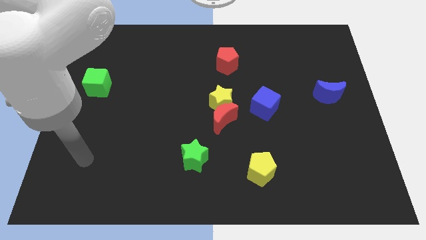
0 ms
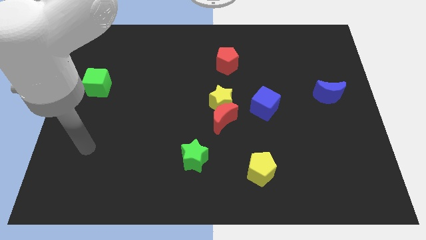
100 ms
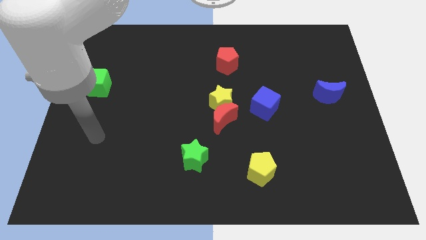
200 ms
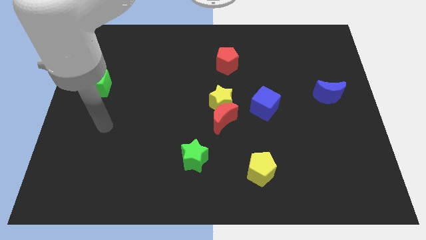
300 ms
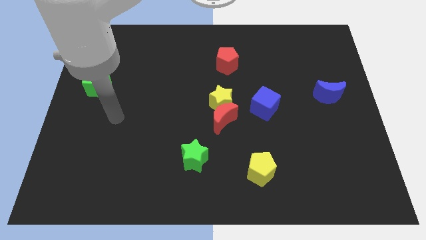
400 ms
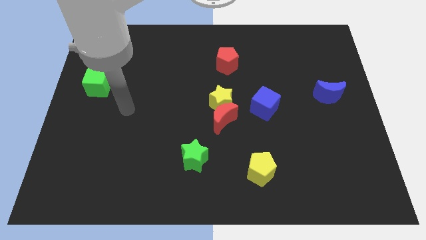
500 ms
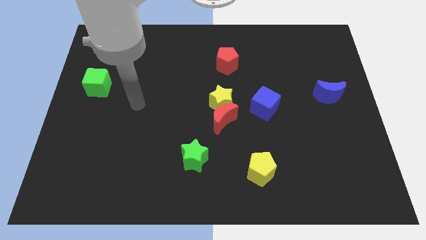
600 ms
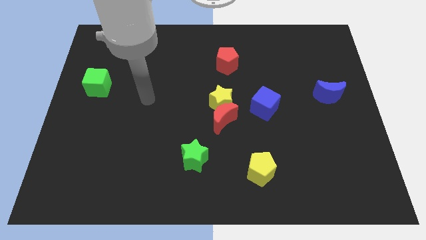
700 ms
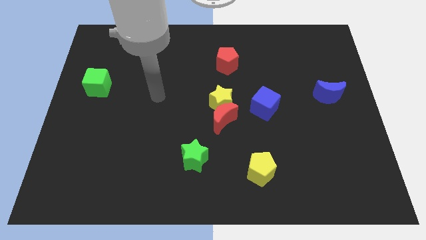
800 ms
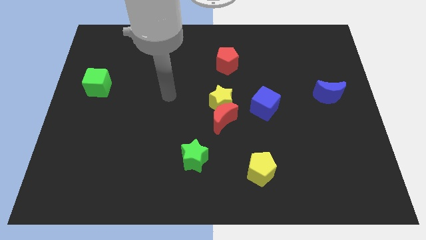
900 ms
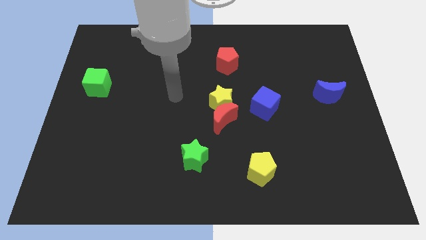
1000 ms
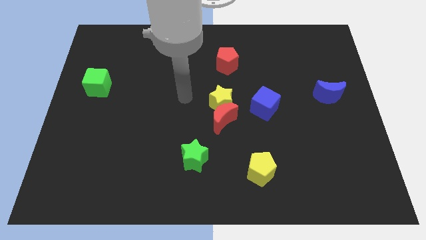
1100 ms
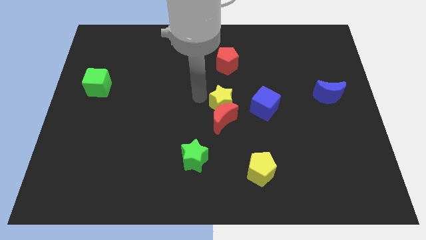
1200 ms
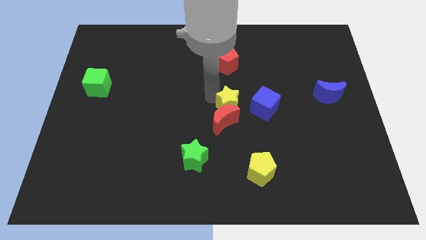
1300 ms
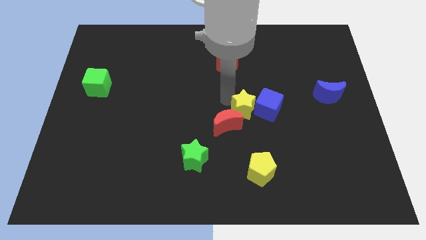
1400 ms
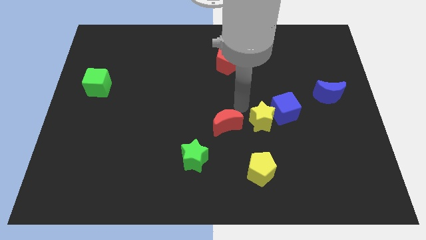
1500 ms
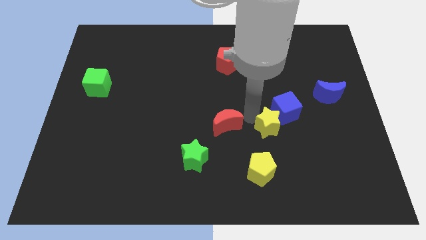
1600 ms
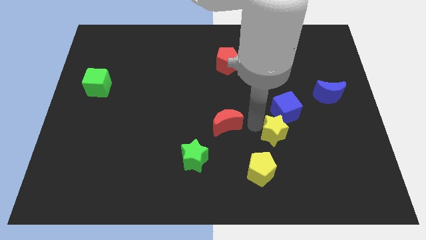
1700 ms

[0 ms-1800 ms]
pull the red moon apart from the yellow star

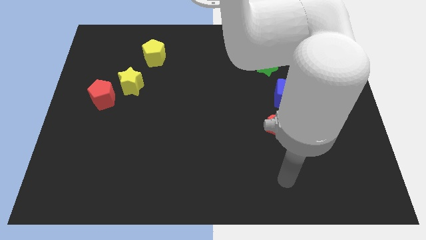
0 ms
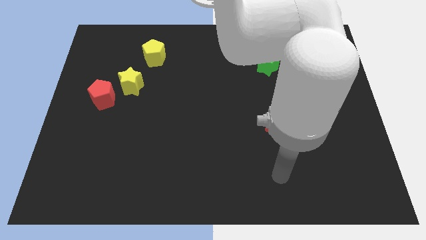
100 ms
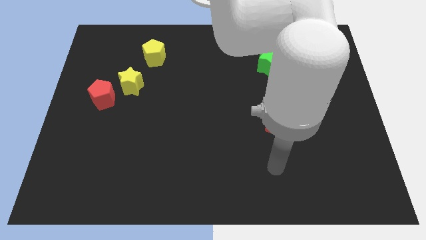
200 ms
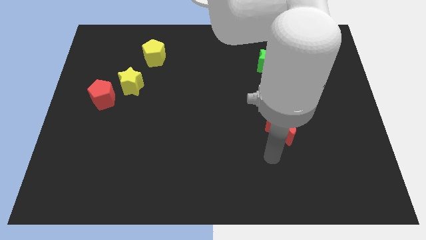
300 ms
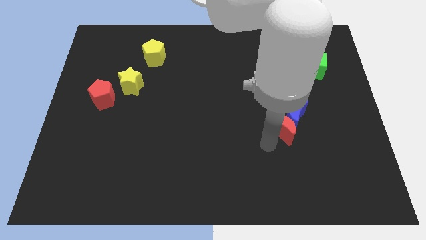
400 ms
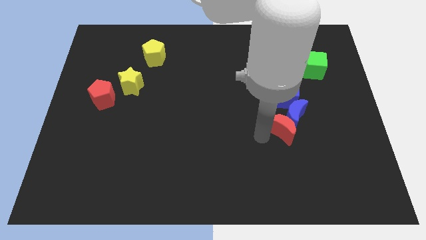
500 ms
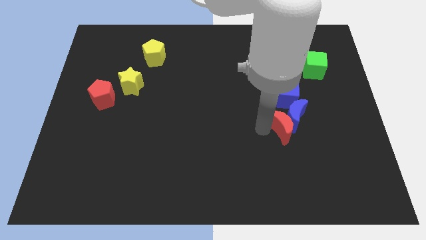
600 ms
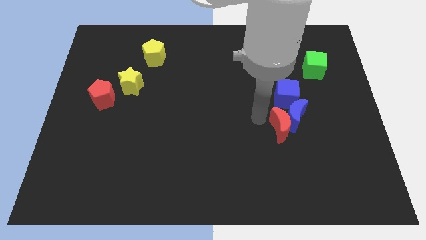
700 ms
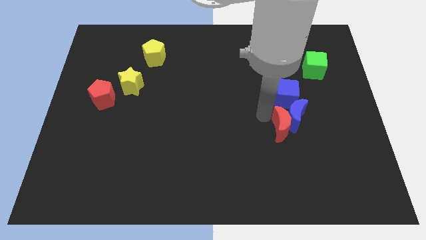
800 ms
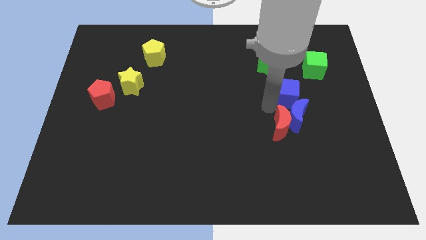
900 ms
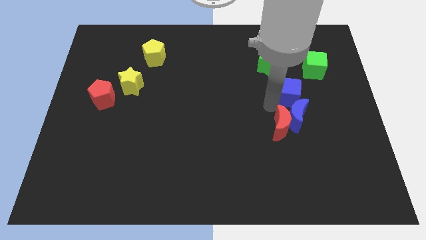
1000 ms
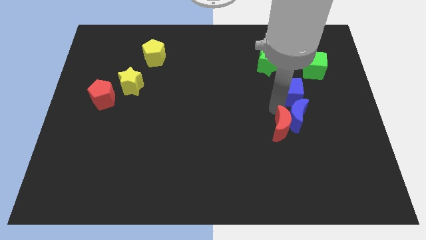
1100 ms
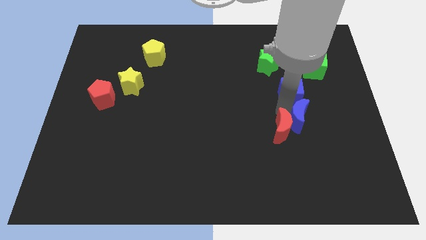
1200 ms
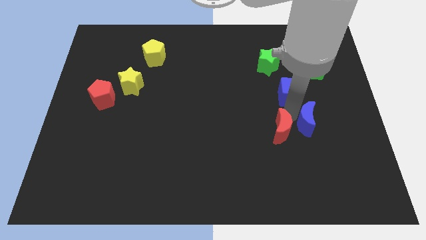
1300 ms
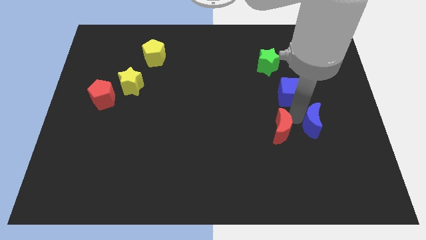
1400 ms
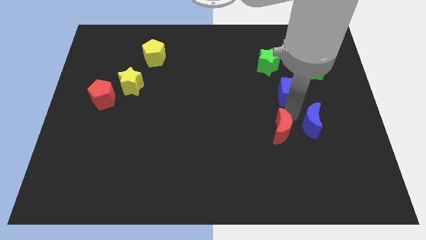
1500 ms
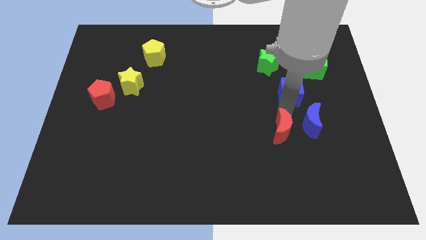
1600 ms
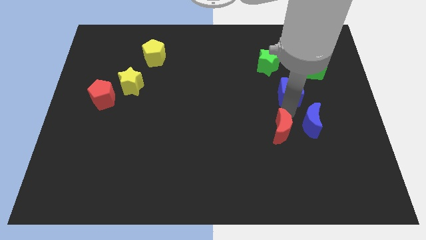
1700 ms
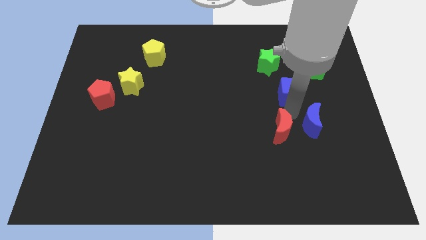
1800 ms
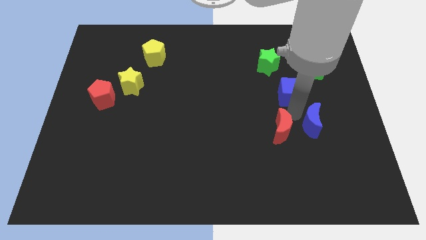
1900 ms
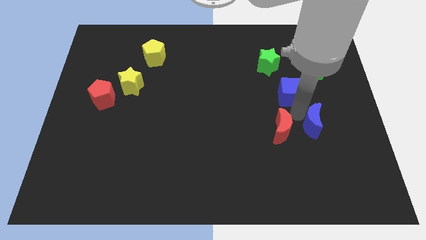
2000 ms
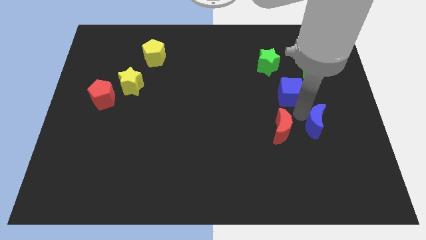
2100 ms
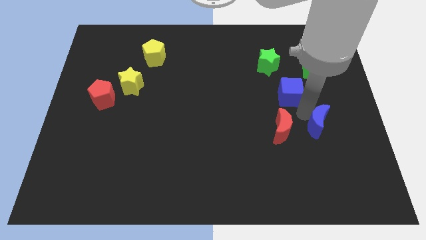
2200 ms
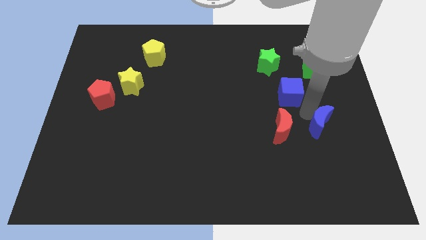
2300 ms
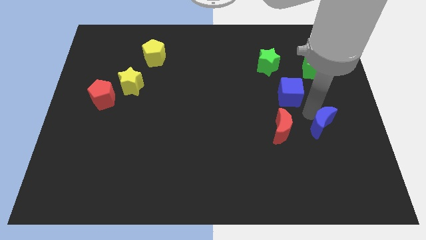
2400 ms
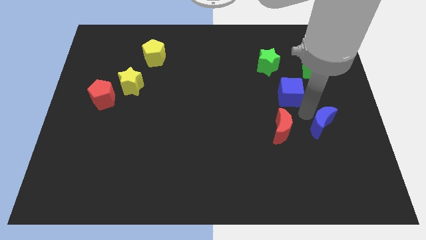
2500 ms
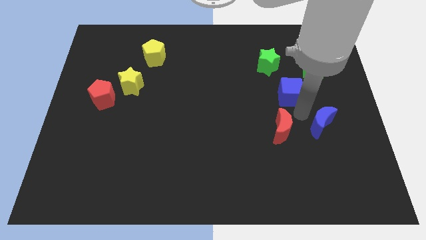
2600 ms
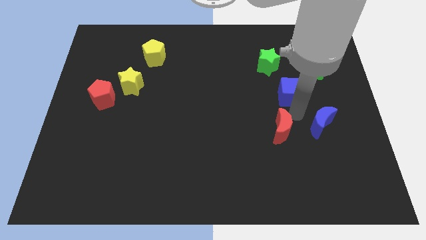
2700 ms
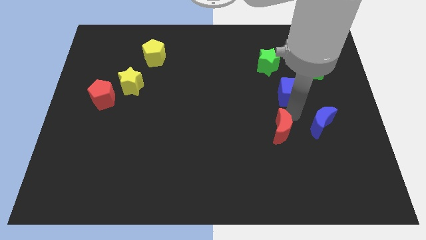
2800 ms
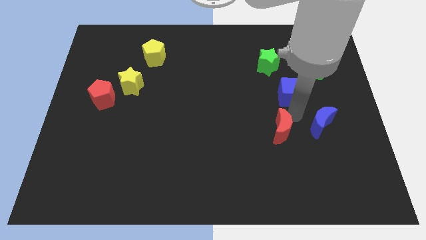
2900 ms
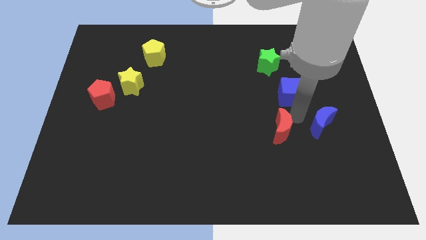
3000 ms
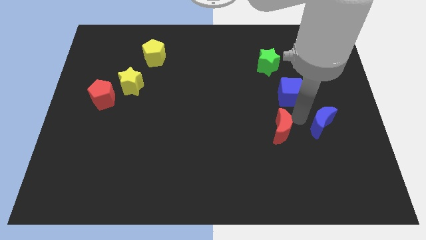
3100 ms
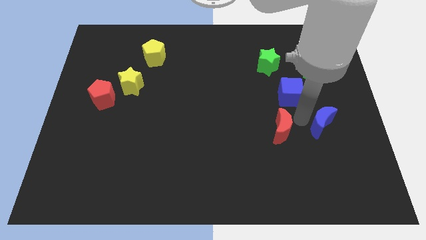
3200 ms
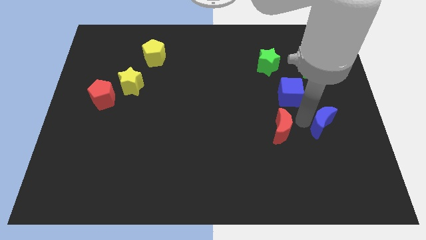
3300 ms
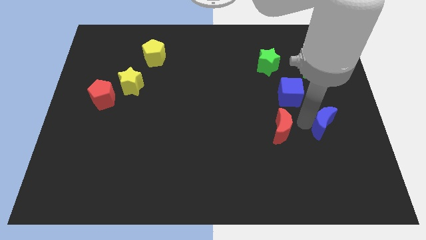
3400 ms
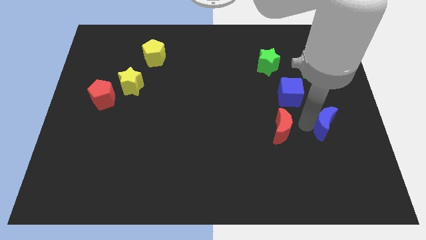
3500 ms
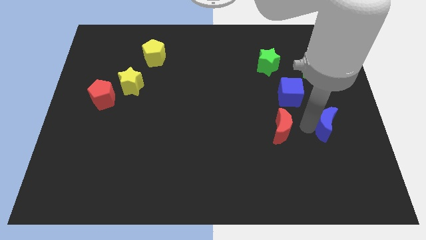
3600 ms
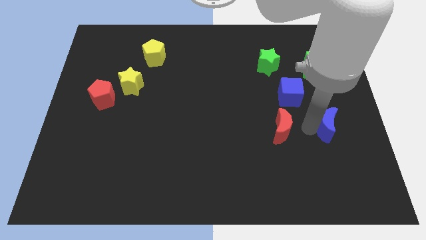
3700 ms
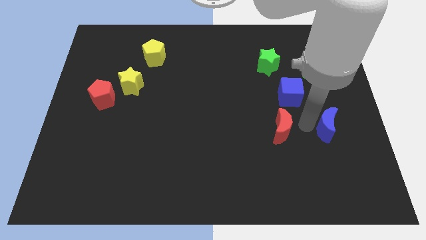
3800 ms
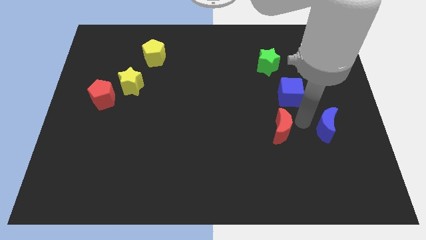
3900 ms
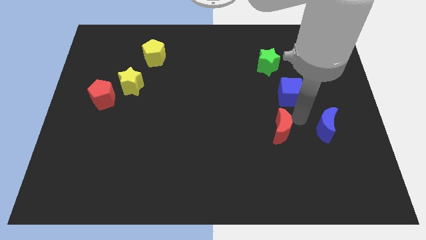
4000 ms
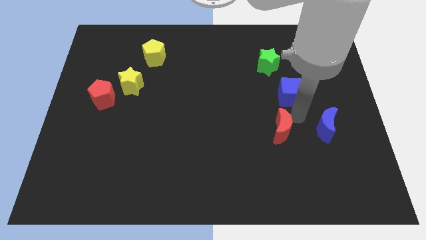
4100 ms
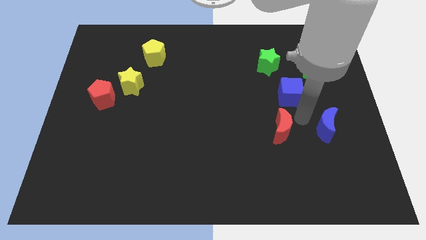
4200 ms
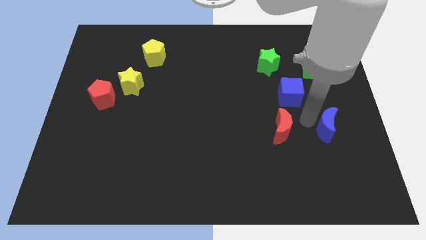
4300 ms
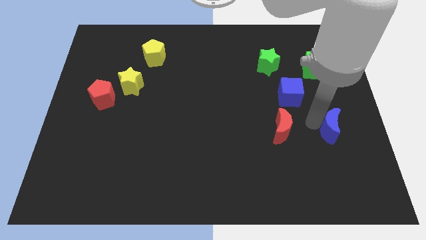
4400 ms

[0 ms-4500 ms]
separate the blue moon from the red moon and blue cube

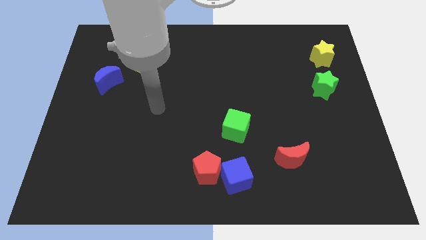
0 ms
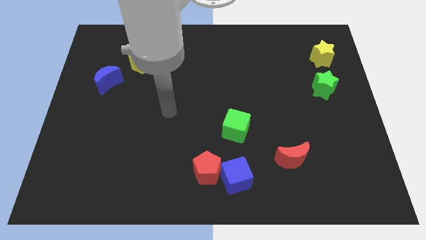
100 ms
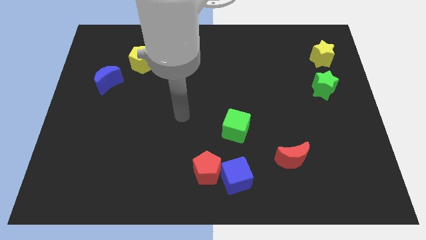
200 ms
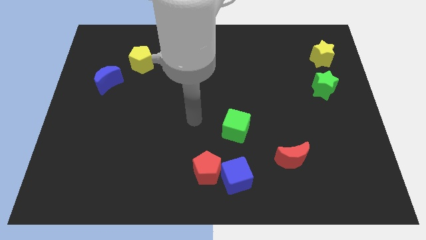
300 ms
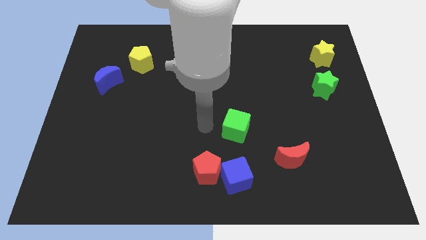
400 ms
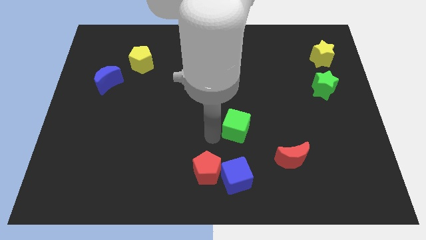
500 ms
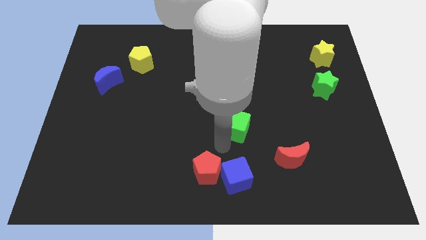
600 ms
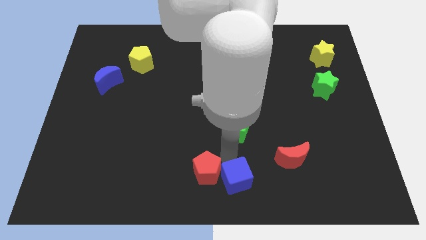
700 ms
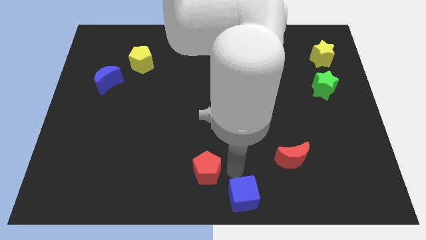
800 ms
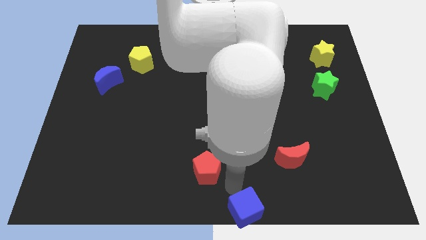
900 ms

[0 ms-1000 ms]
move the red pentagon away from the blue cube

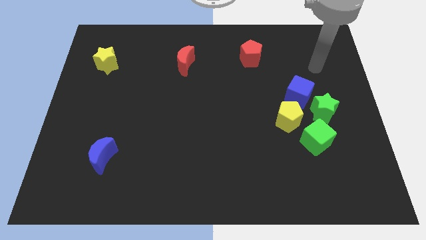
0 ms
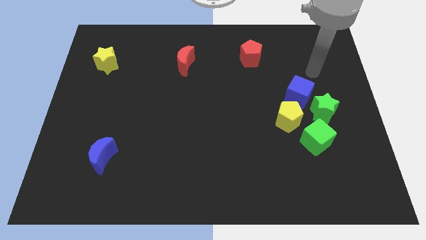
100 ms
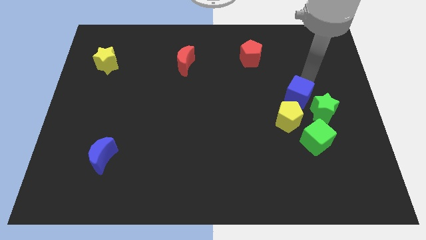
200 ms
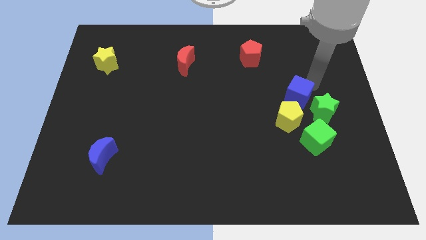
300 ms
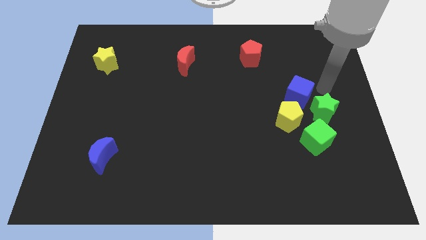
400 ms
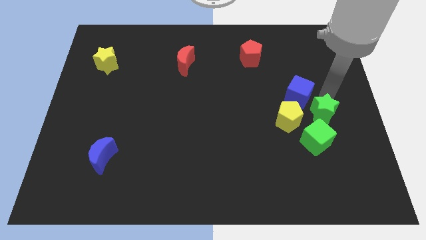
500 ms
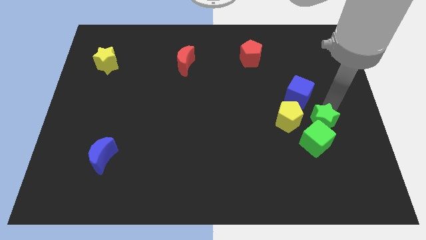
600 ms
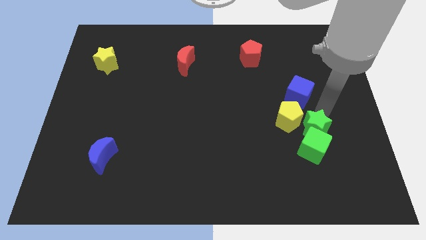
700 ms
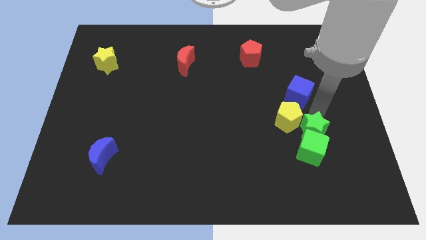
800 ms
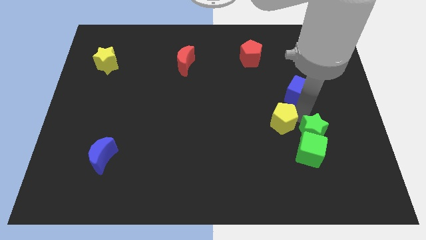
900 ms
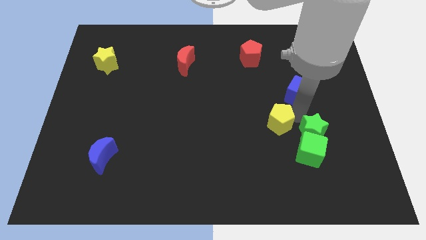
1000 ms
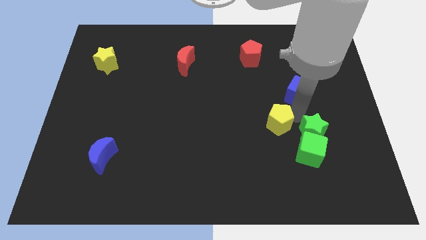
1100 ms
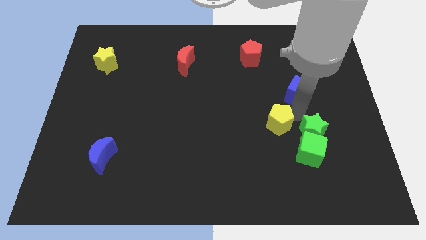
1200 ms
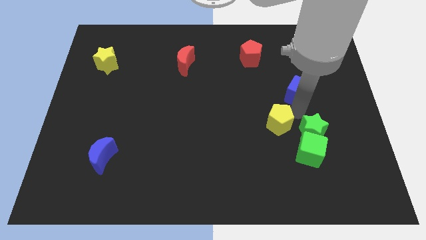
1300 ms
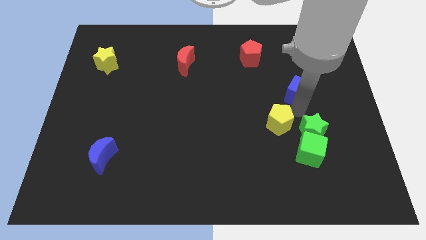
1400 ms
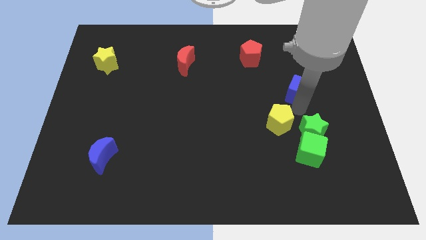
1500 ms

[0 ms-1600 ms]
move the blue cube away from the green star and yellow pentagon

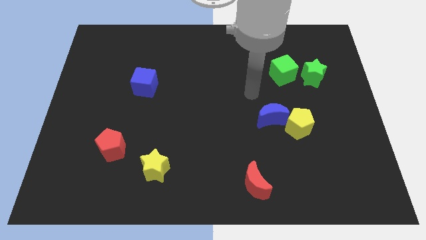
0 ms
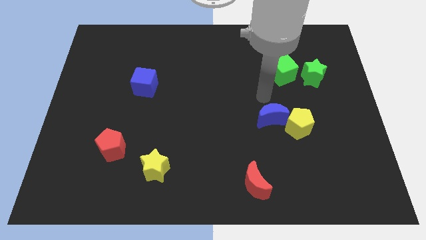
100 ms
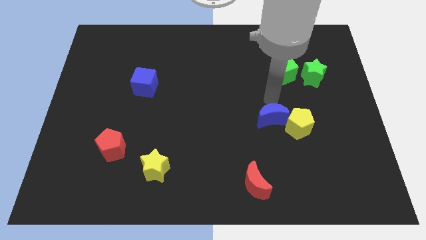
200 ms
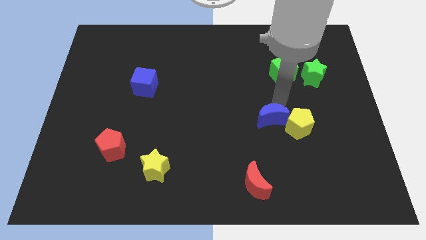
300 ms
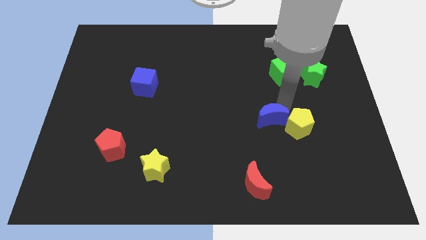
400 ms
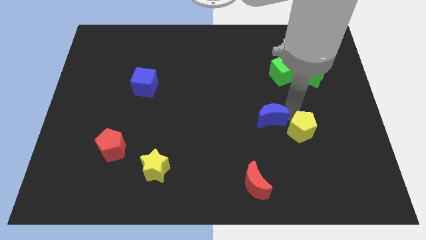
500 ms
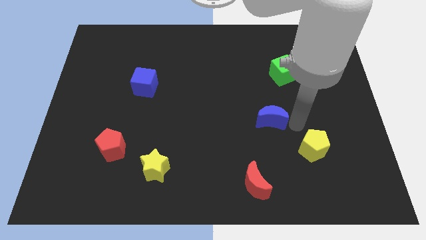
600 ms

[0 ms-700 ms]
pull the blue moon apart from the yellow pentagon
